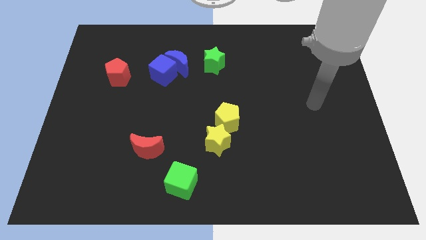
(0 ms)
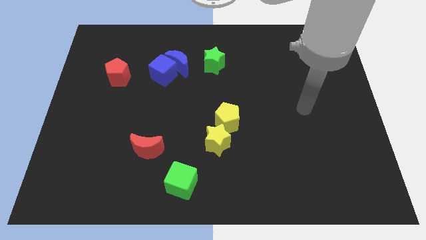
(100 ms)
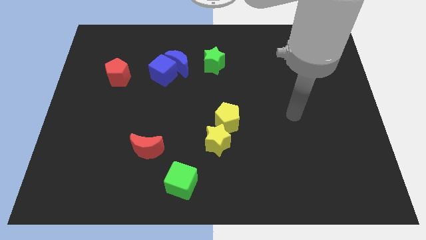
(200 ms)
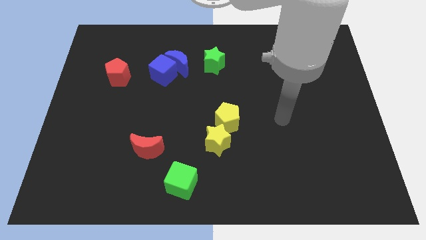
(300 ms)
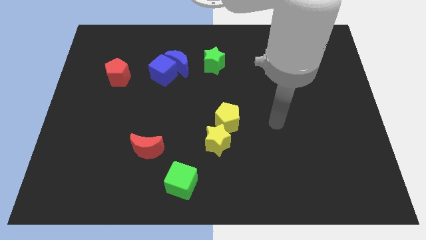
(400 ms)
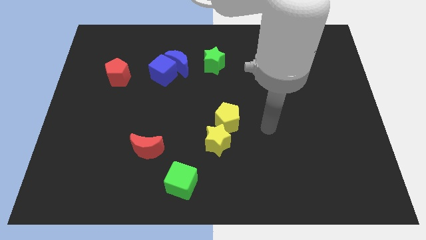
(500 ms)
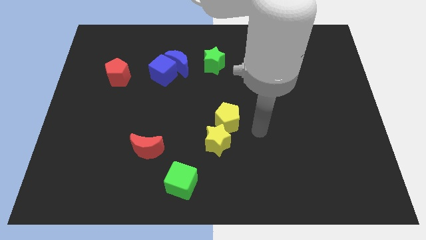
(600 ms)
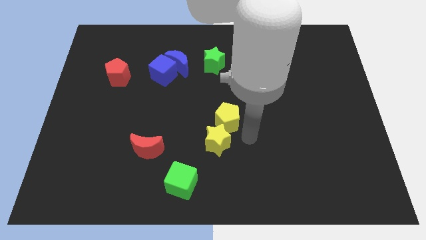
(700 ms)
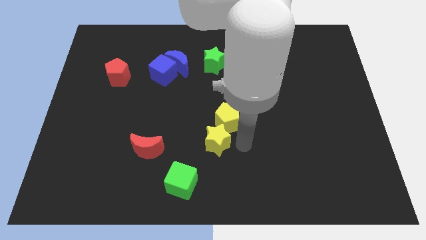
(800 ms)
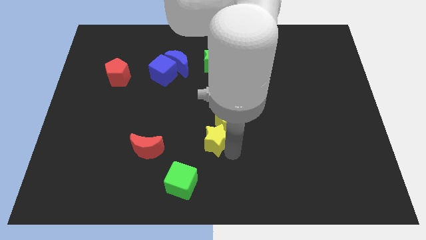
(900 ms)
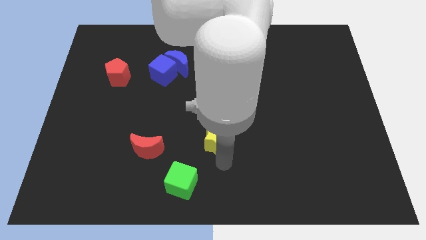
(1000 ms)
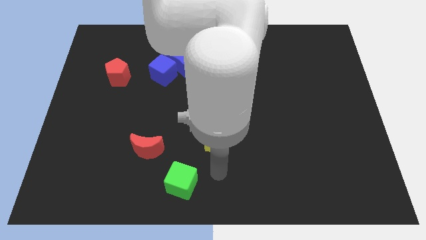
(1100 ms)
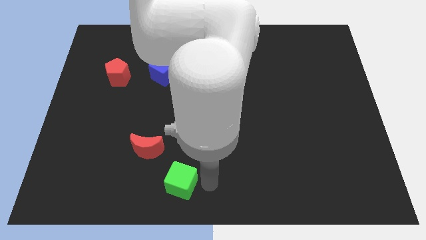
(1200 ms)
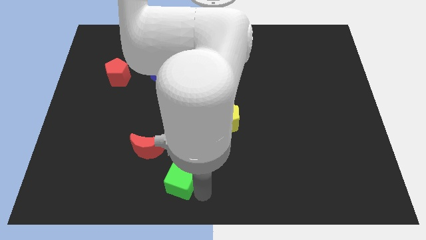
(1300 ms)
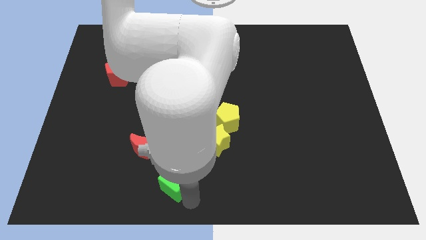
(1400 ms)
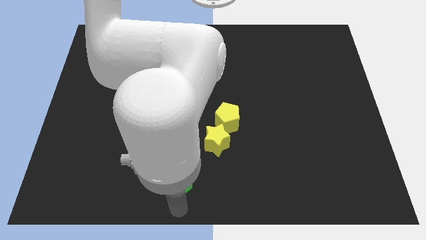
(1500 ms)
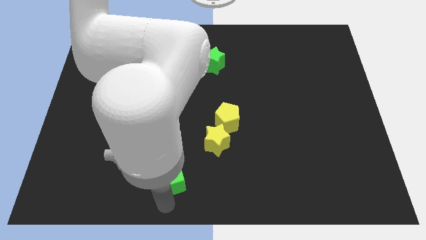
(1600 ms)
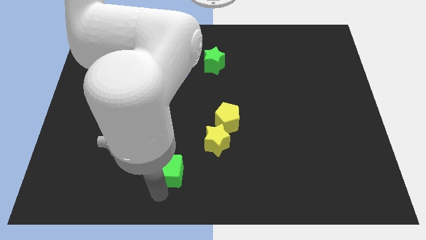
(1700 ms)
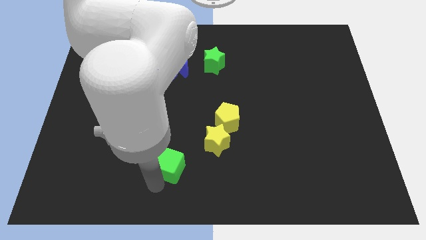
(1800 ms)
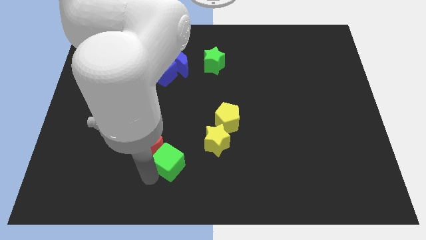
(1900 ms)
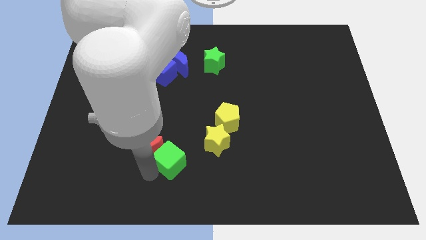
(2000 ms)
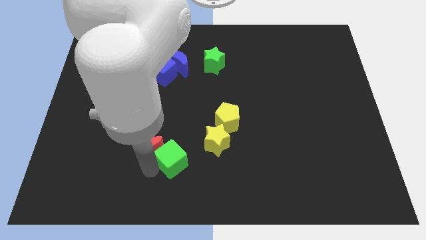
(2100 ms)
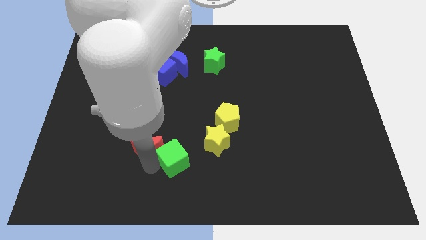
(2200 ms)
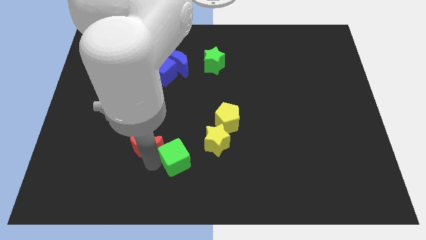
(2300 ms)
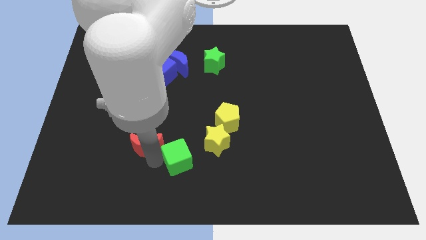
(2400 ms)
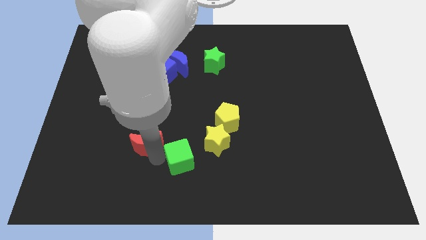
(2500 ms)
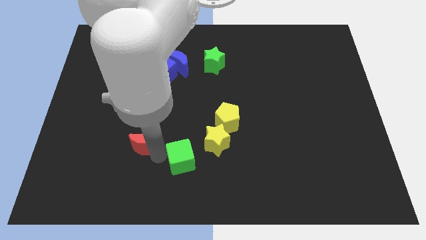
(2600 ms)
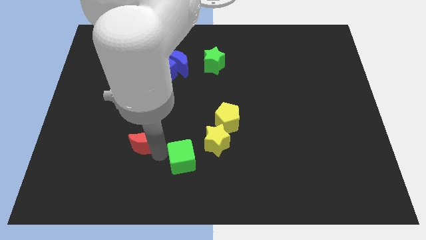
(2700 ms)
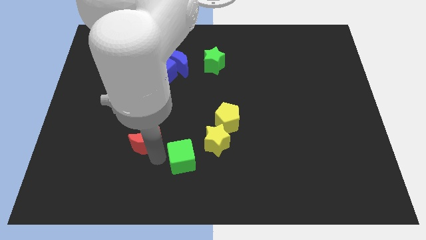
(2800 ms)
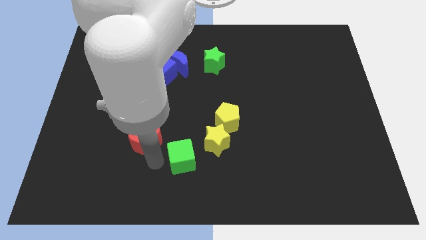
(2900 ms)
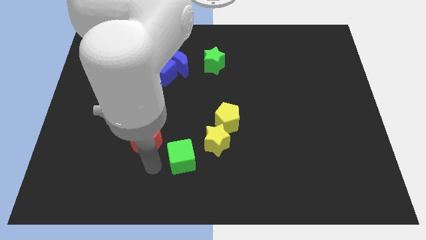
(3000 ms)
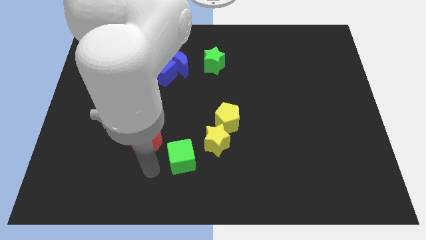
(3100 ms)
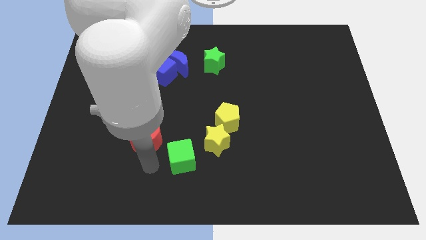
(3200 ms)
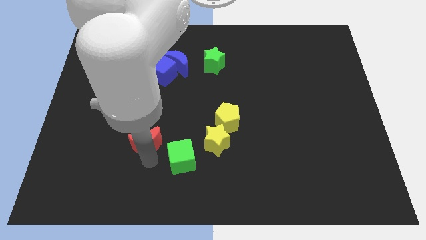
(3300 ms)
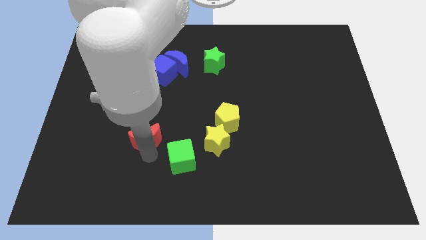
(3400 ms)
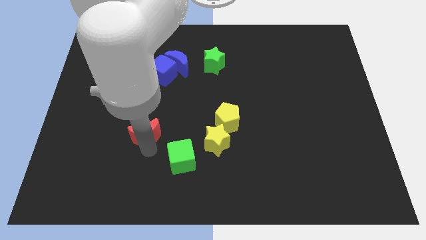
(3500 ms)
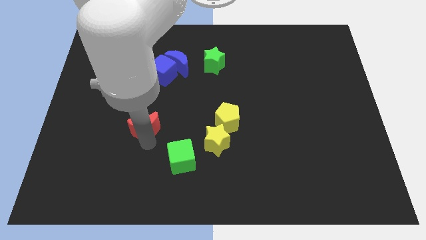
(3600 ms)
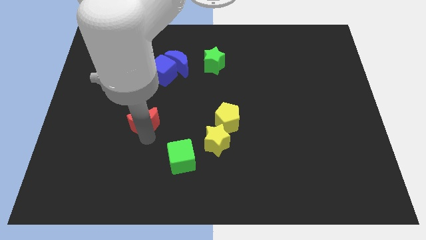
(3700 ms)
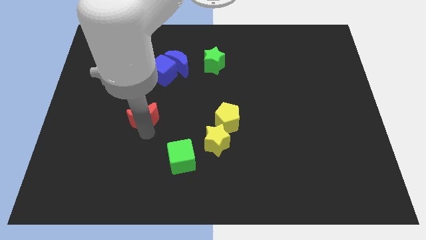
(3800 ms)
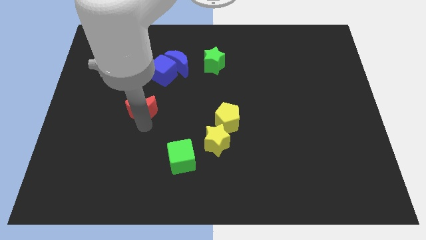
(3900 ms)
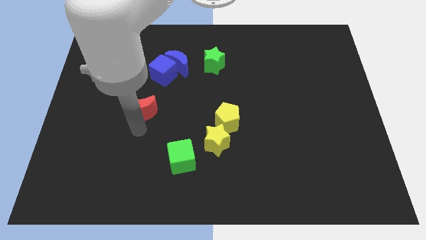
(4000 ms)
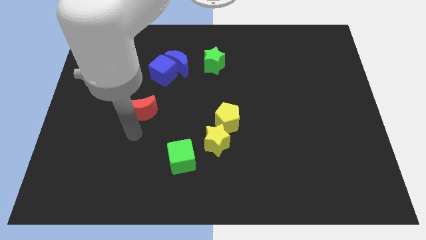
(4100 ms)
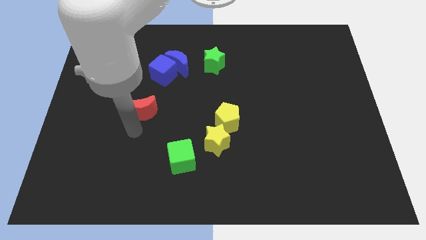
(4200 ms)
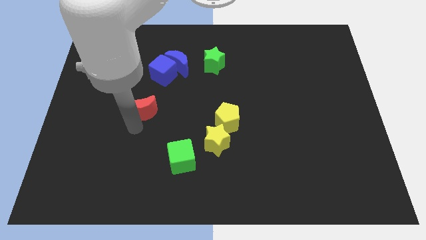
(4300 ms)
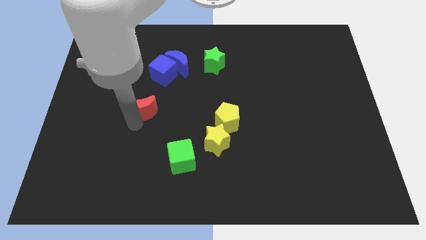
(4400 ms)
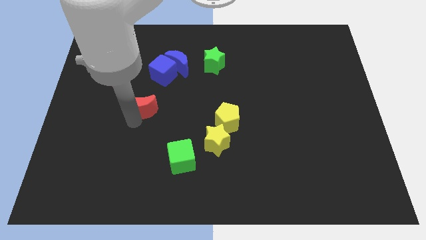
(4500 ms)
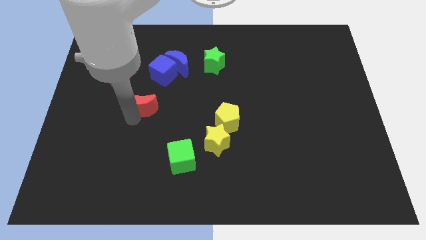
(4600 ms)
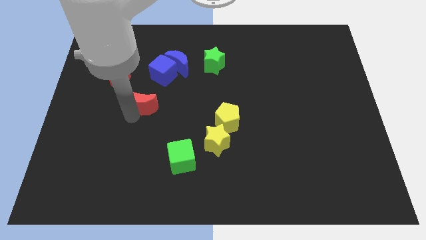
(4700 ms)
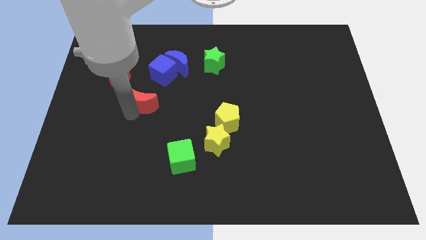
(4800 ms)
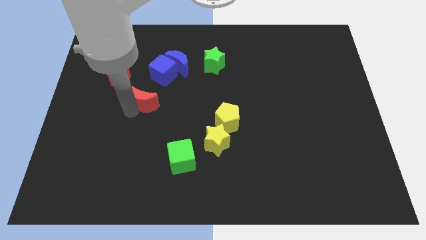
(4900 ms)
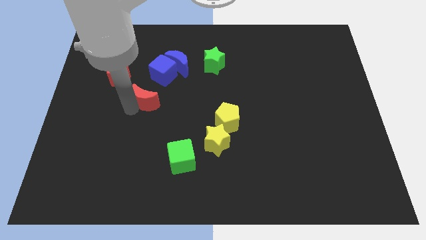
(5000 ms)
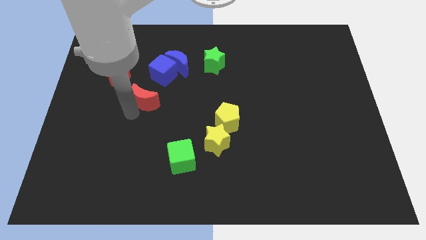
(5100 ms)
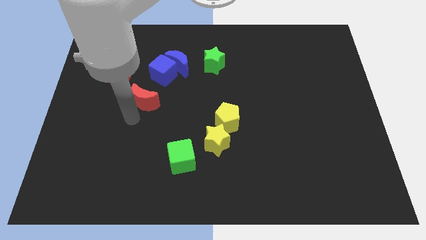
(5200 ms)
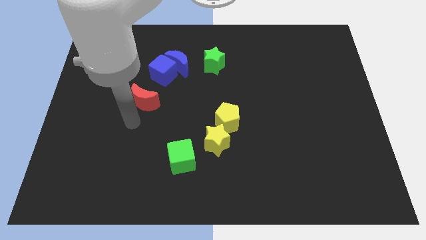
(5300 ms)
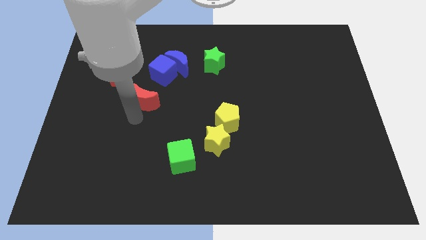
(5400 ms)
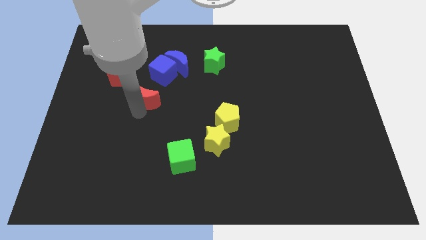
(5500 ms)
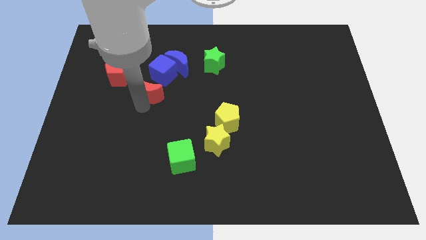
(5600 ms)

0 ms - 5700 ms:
push the red moon diagonally down and to the left of the blue moon

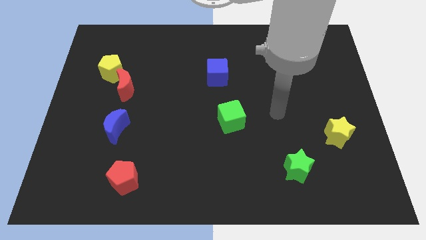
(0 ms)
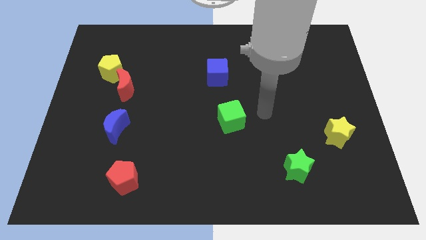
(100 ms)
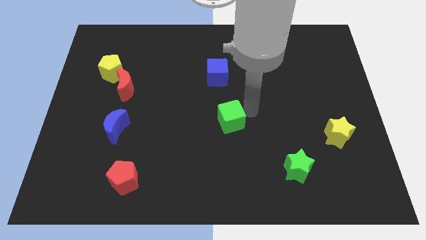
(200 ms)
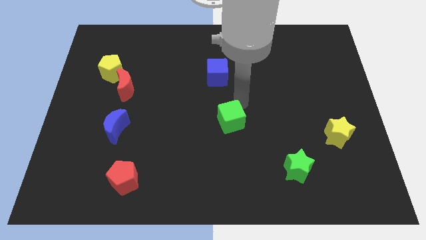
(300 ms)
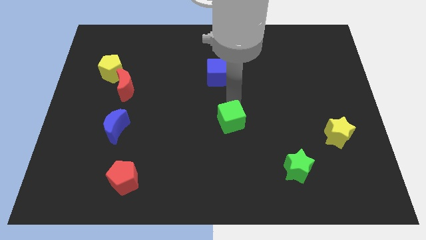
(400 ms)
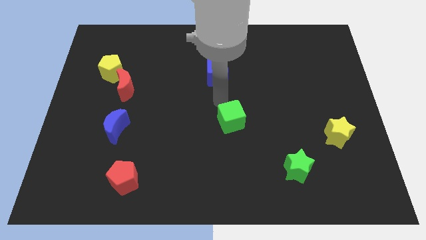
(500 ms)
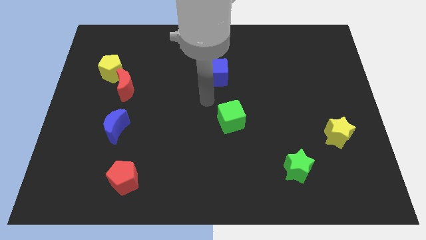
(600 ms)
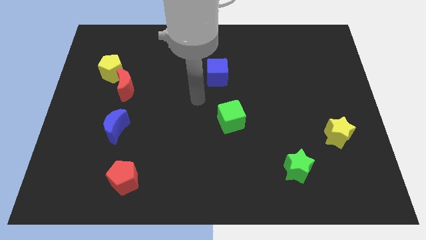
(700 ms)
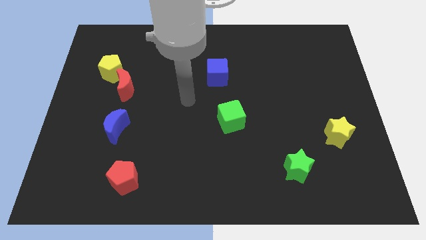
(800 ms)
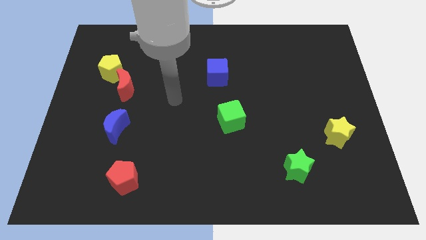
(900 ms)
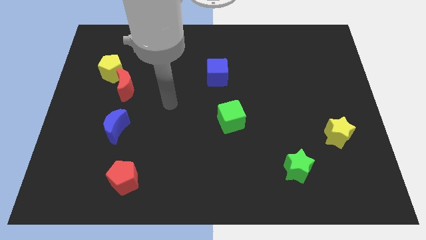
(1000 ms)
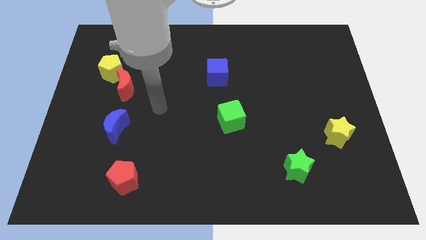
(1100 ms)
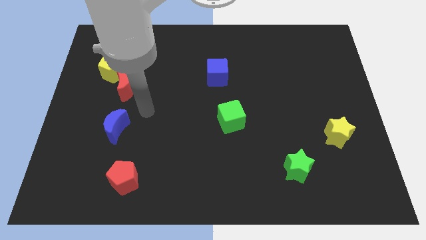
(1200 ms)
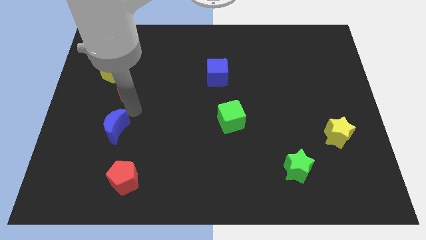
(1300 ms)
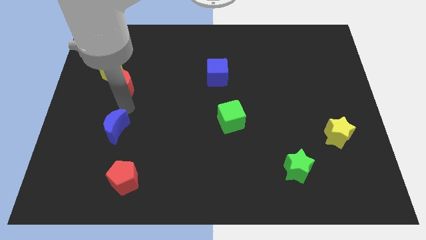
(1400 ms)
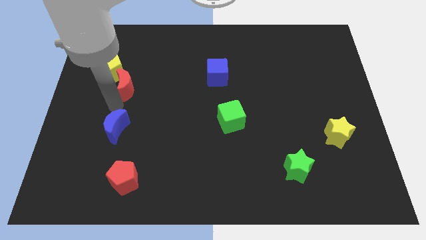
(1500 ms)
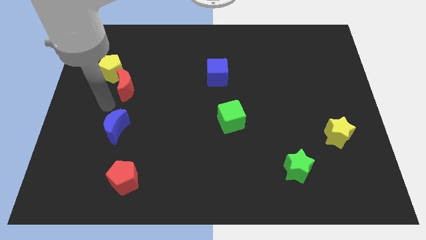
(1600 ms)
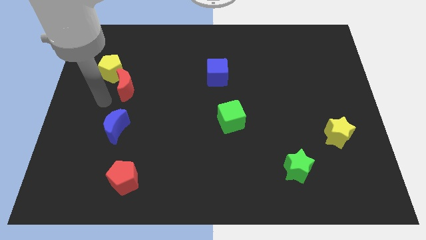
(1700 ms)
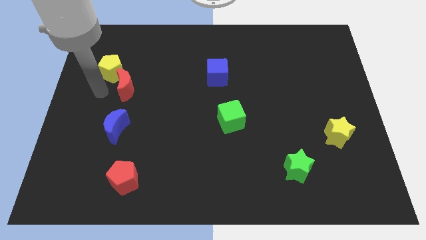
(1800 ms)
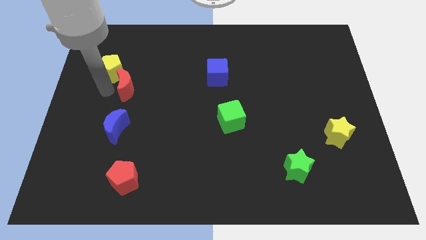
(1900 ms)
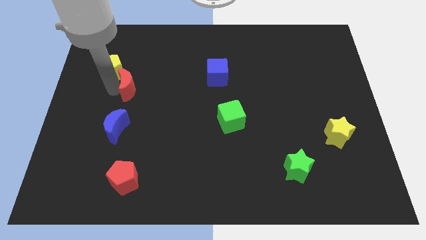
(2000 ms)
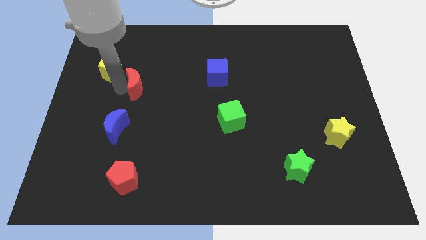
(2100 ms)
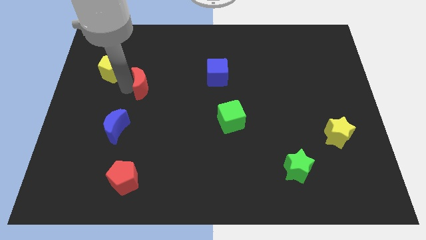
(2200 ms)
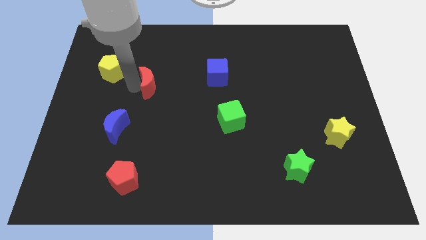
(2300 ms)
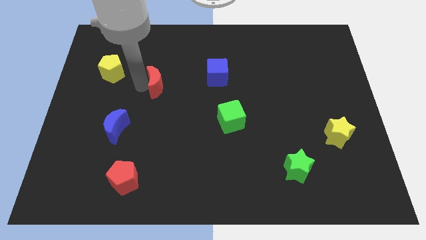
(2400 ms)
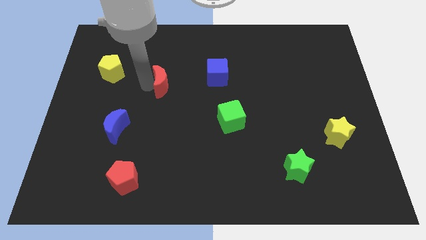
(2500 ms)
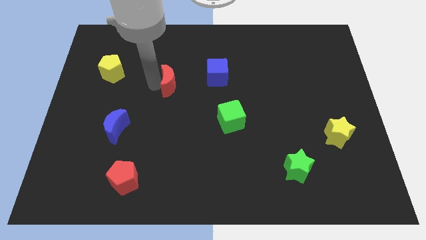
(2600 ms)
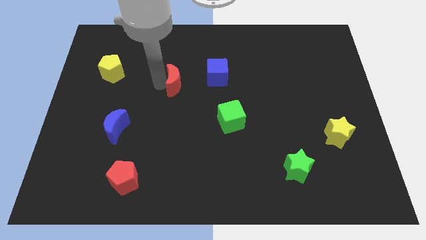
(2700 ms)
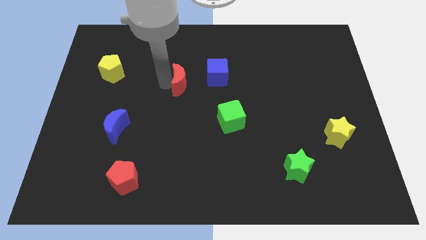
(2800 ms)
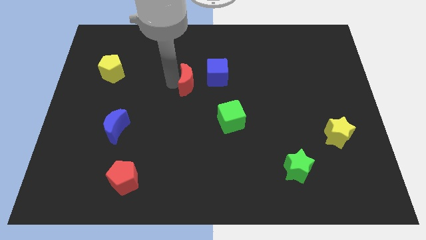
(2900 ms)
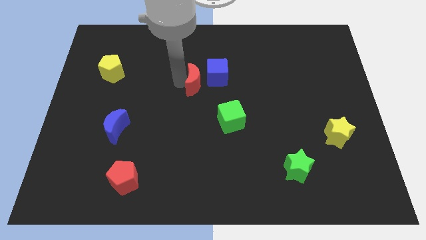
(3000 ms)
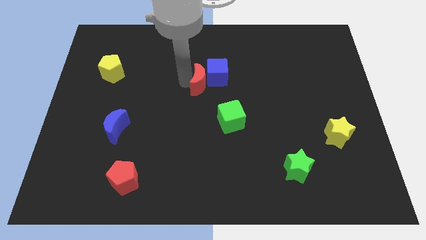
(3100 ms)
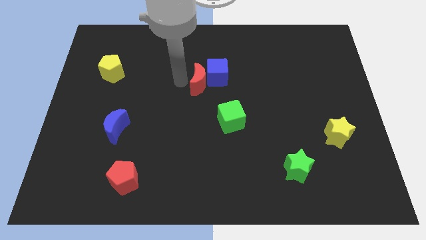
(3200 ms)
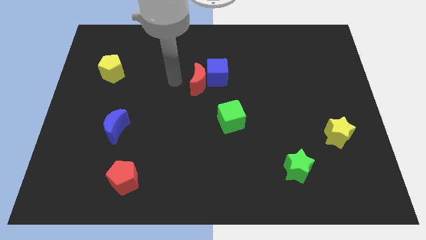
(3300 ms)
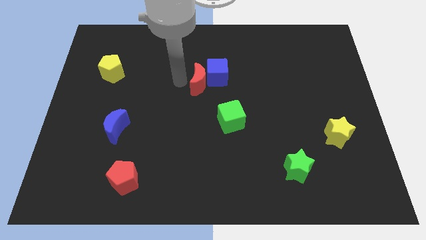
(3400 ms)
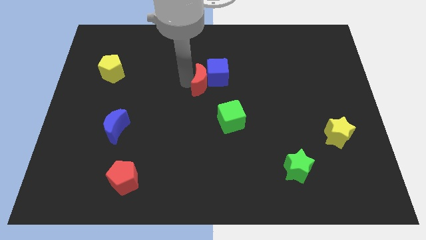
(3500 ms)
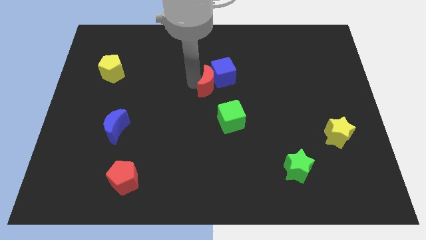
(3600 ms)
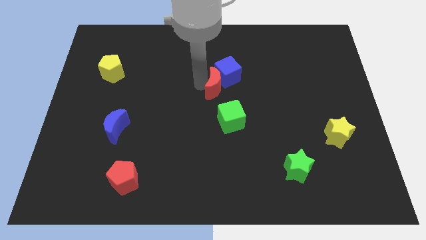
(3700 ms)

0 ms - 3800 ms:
move the red moon to the top of the green cube
